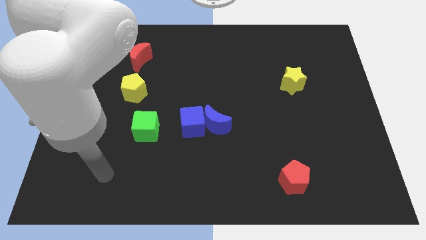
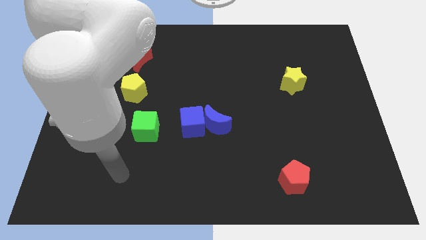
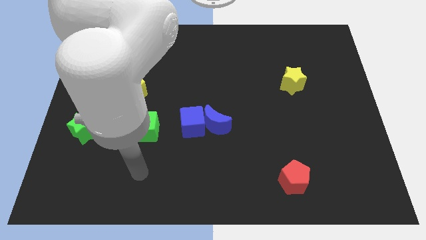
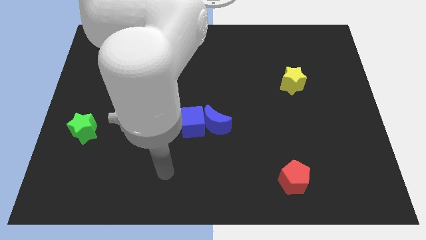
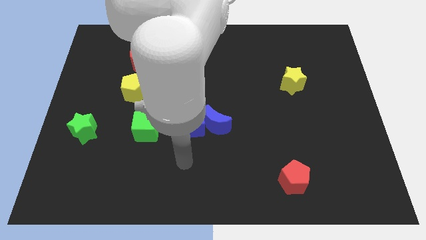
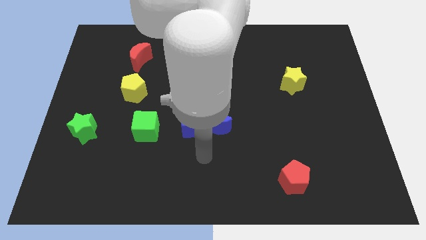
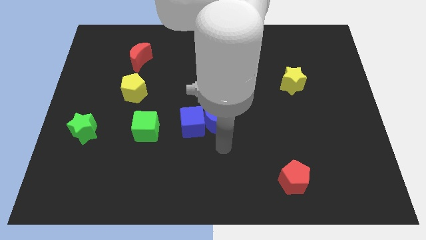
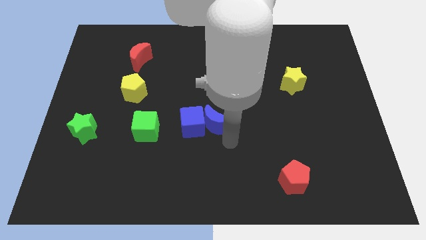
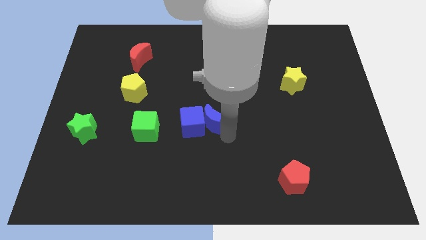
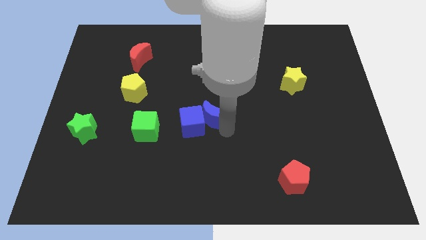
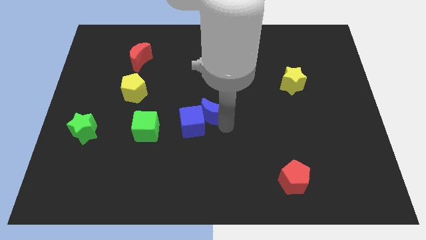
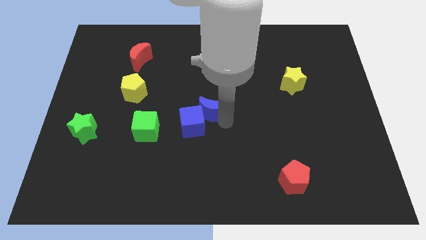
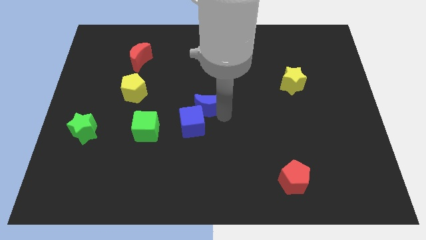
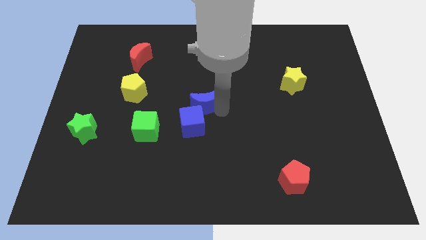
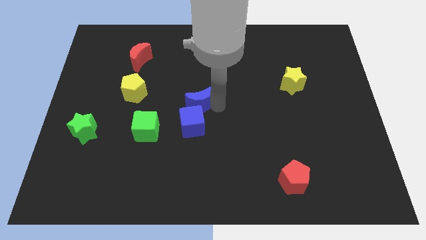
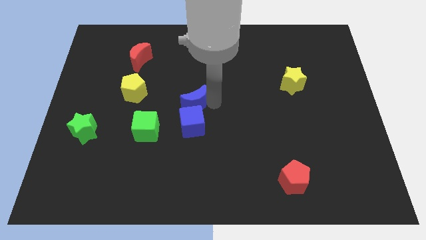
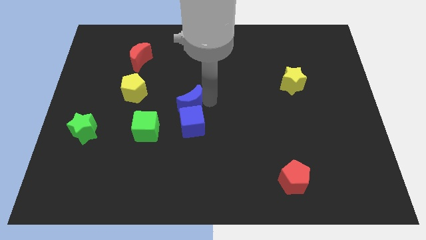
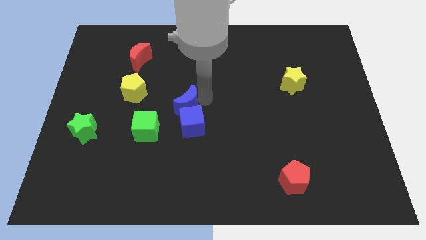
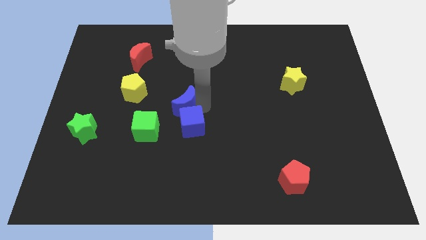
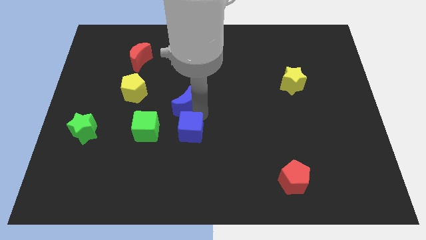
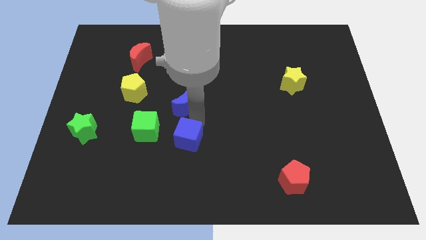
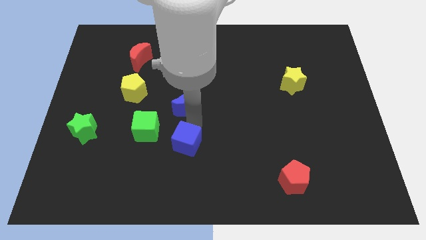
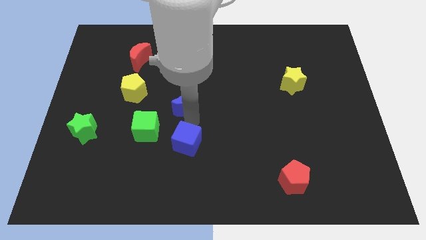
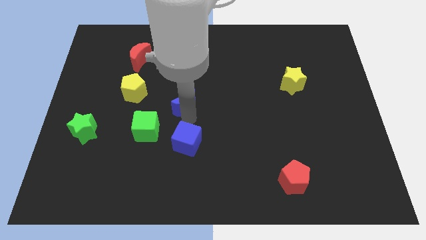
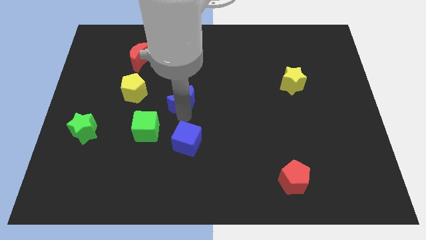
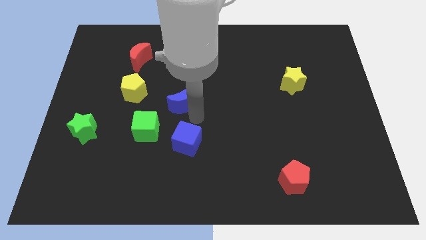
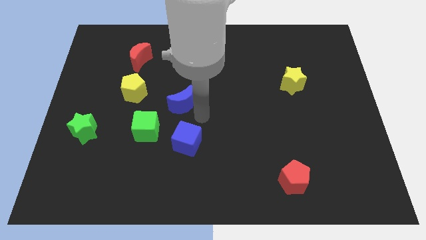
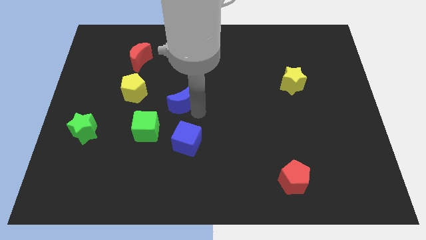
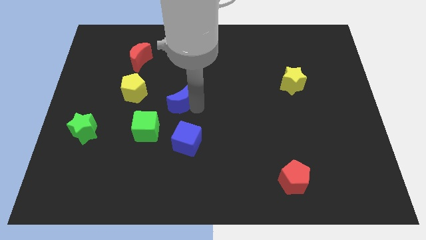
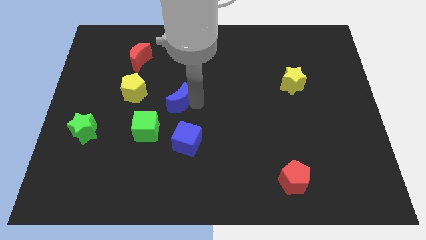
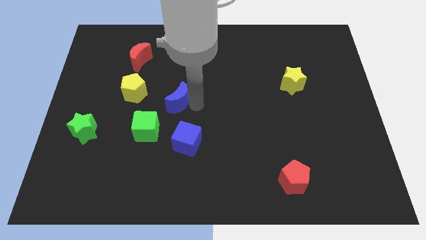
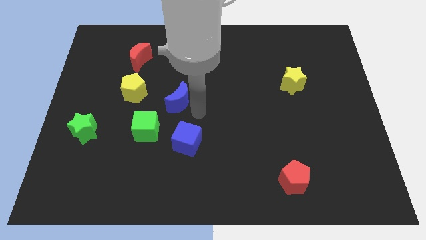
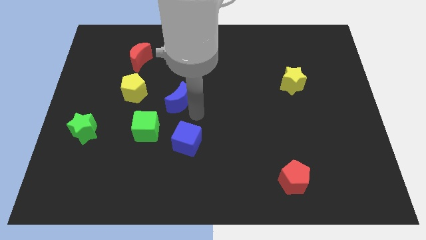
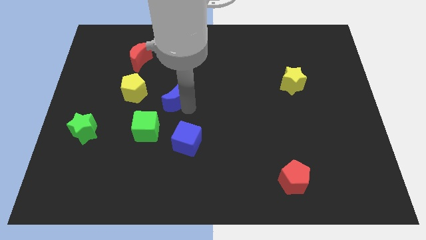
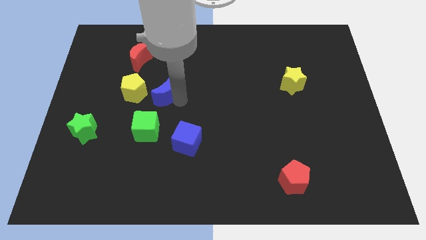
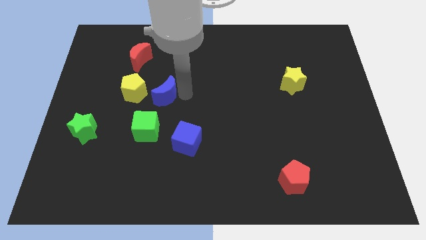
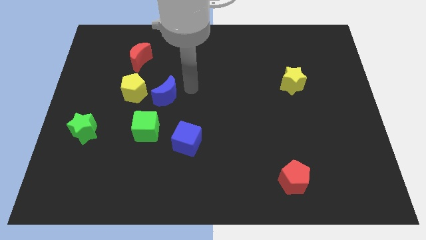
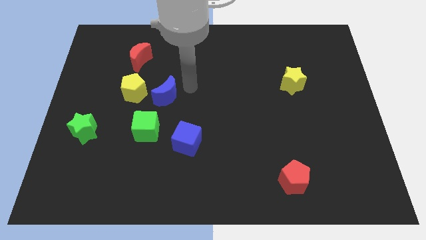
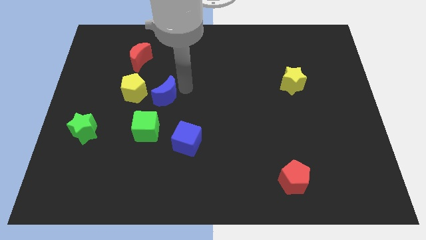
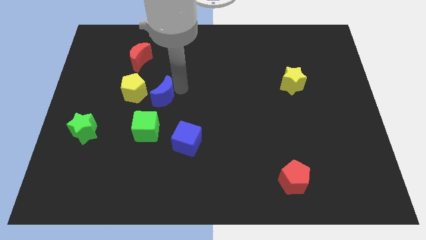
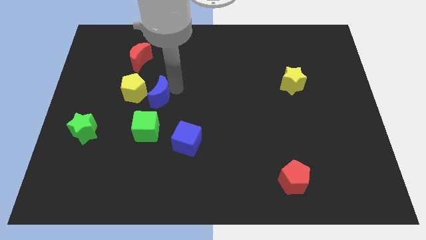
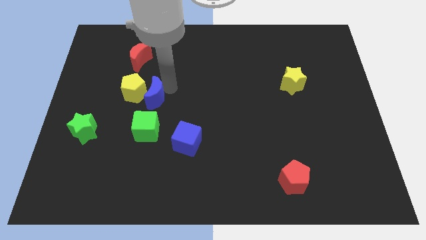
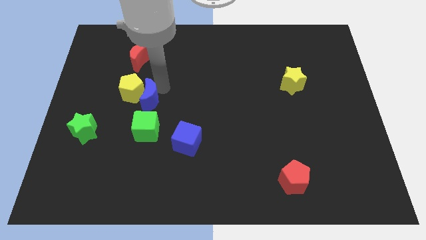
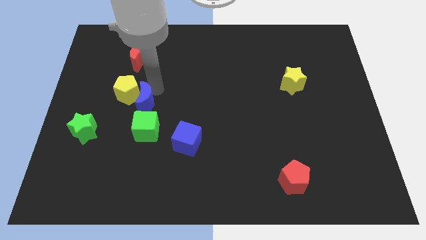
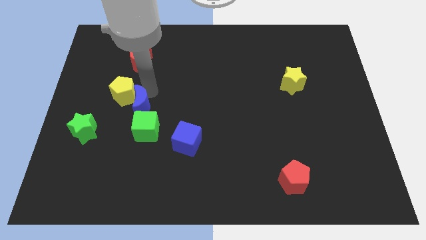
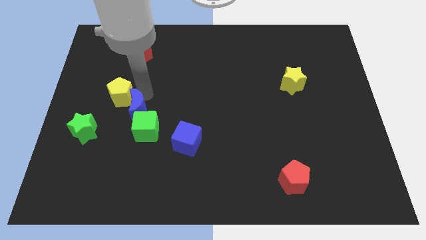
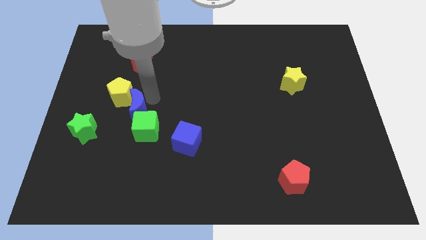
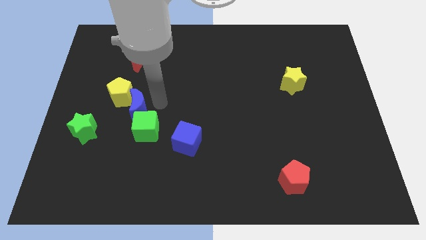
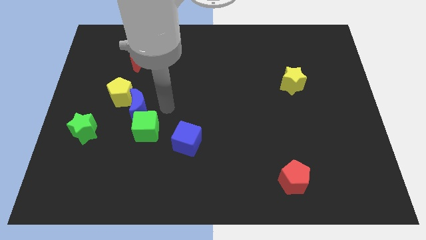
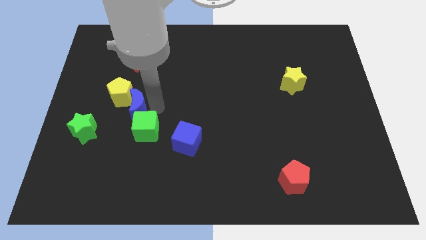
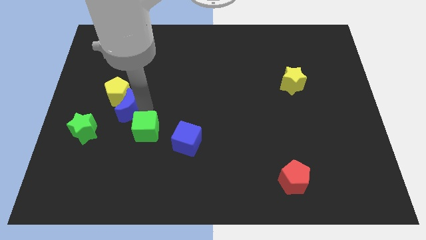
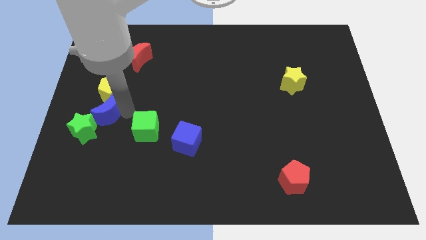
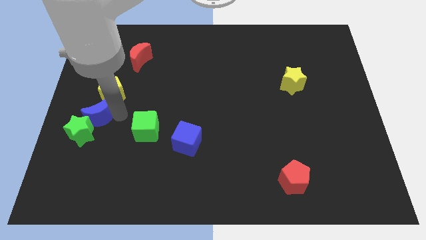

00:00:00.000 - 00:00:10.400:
put the blue moon to the left side of the board
